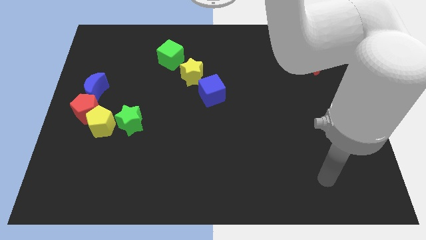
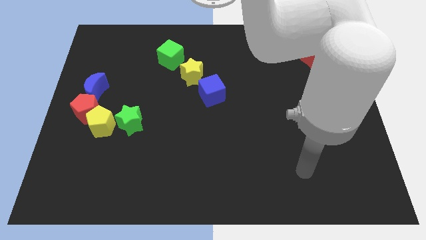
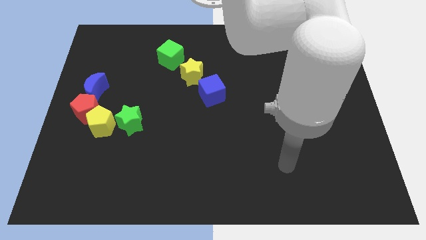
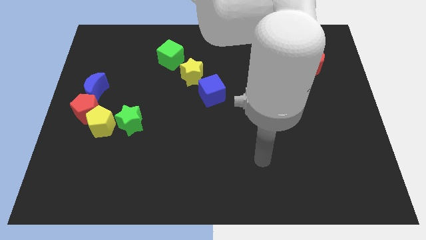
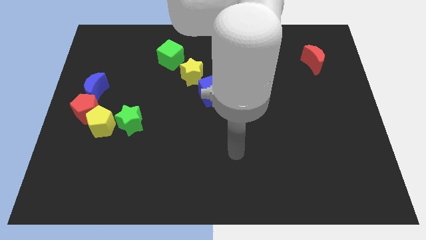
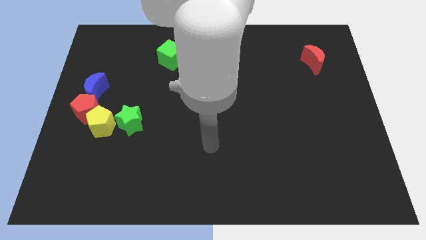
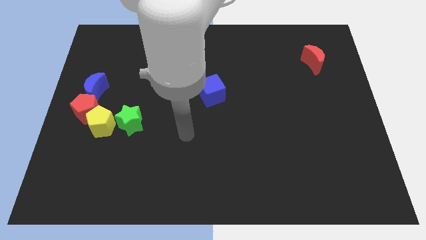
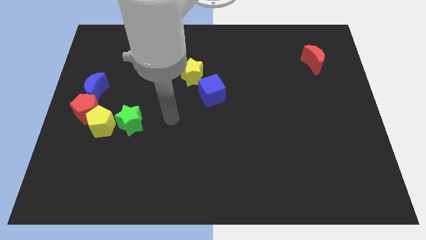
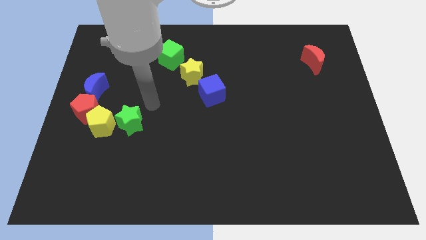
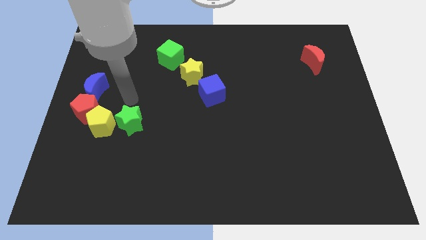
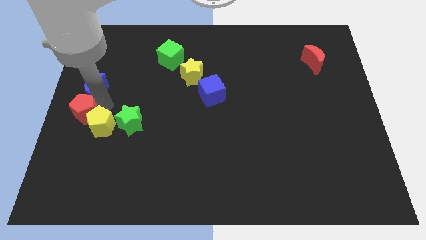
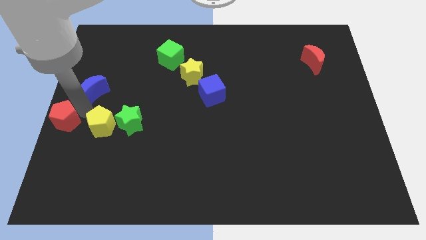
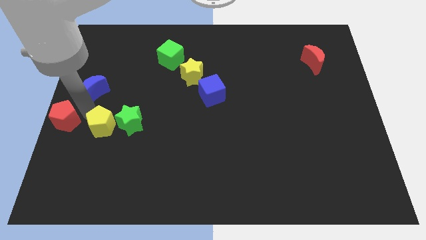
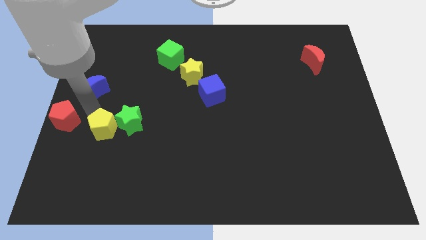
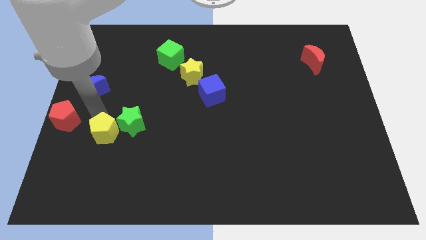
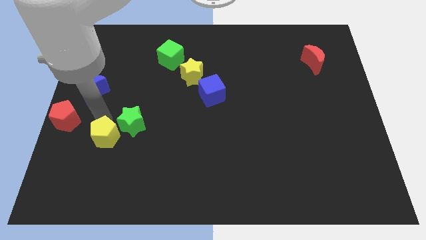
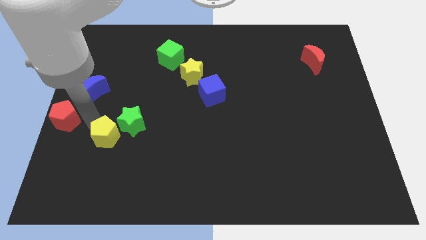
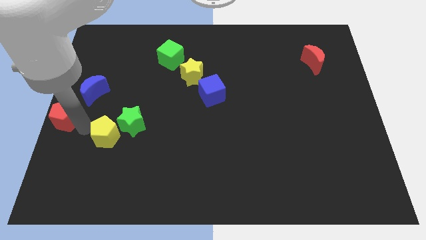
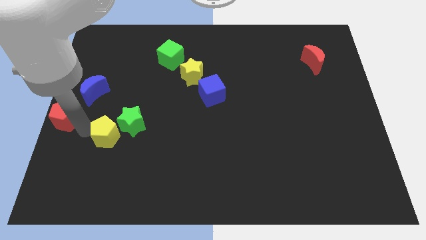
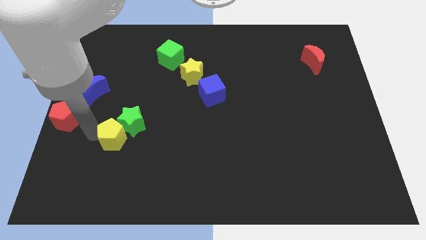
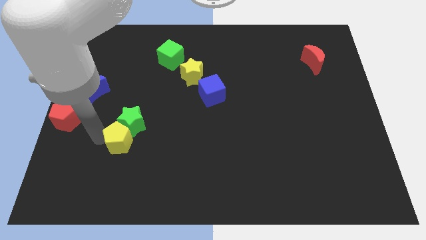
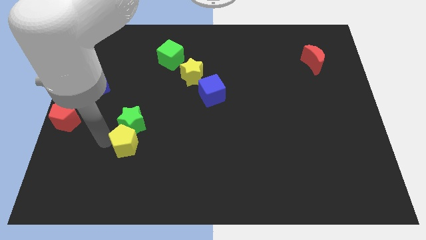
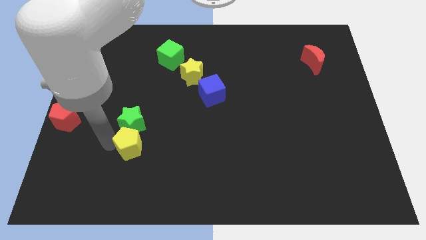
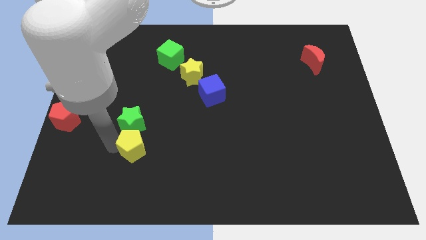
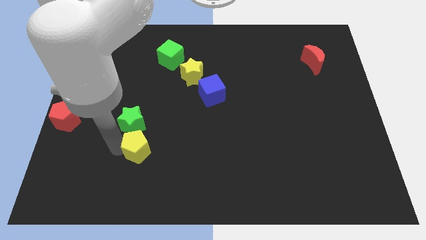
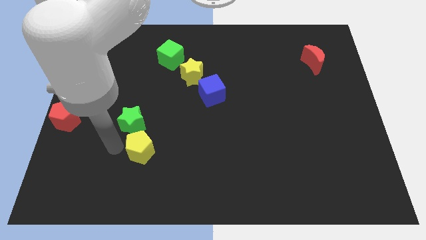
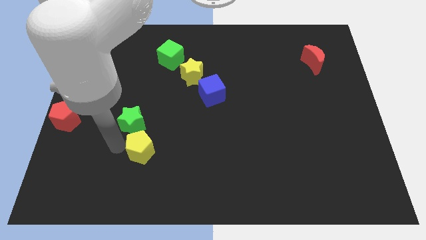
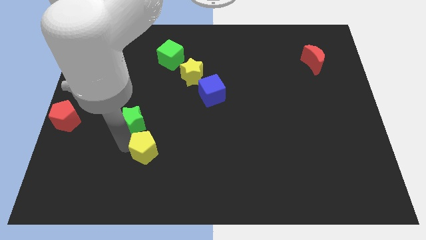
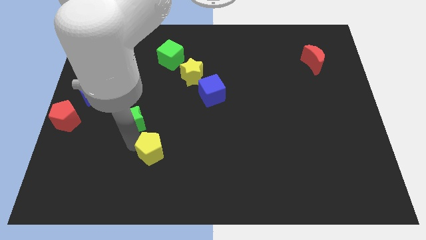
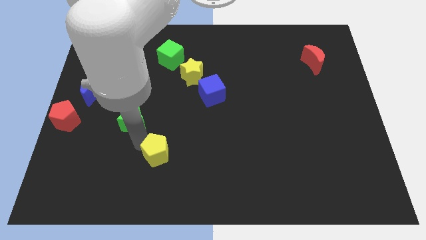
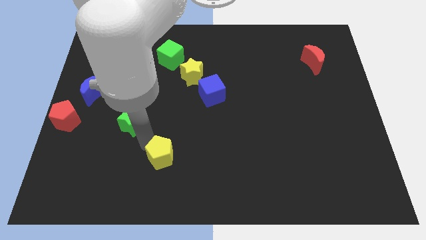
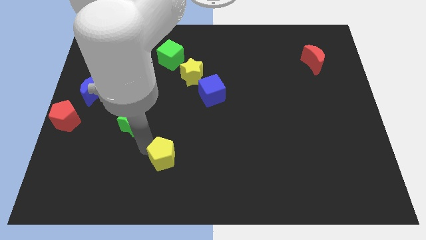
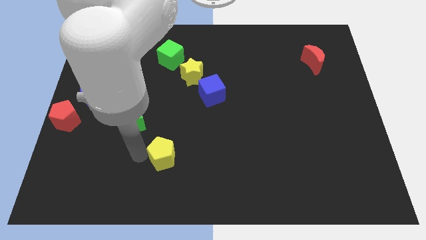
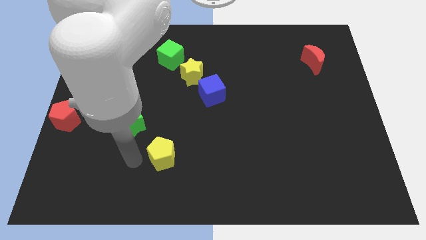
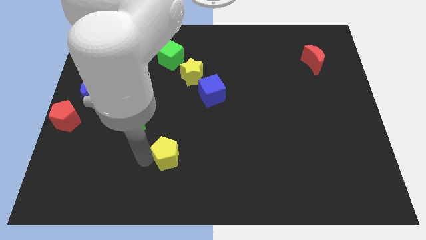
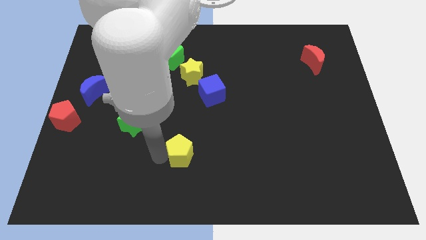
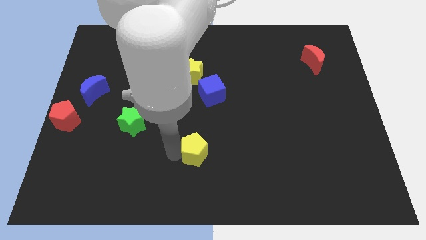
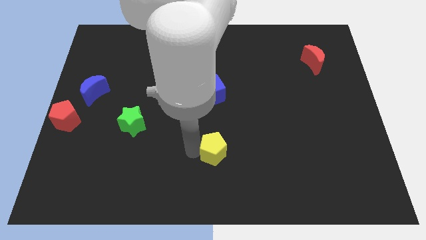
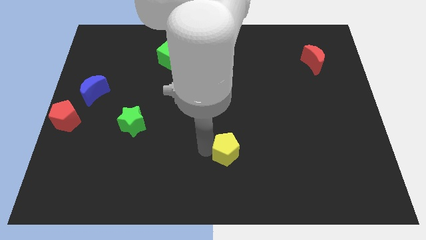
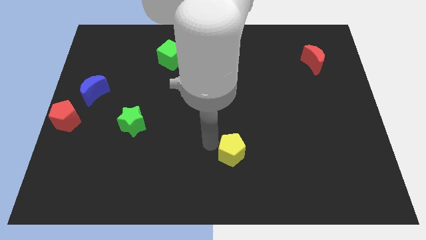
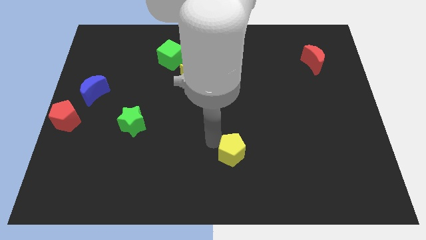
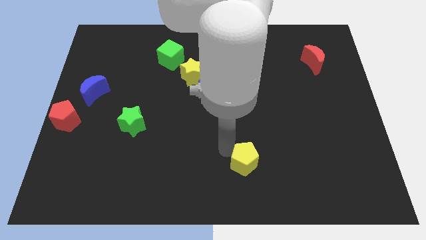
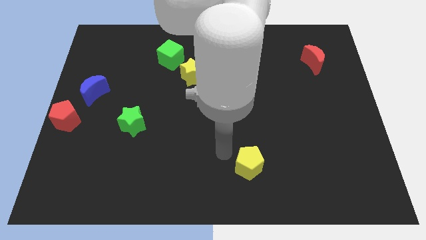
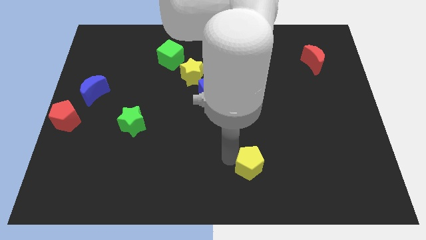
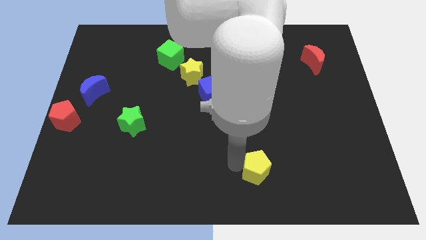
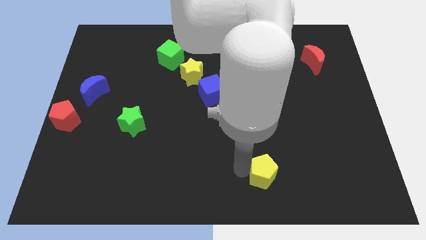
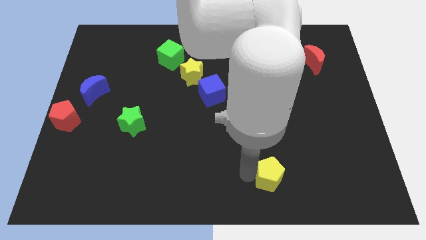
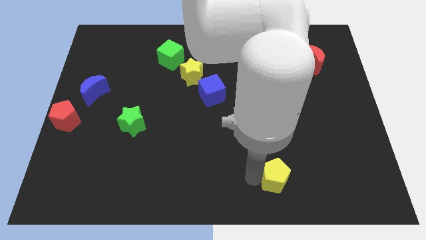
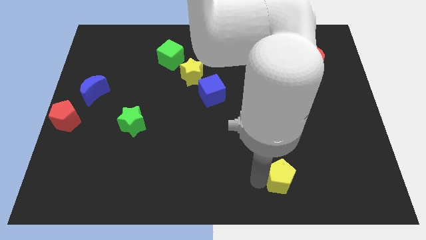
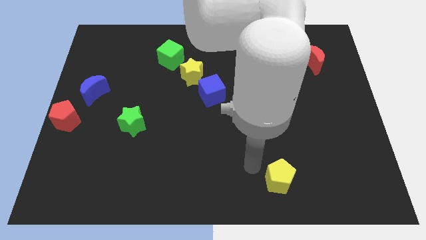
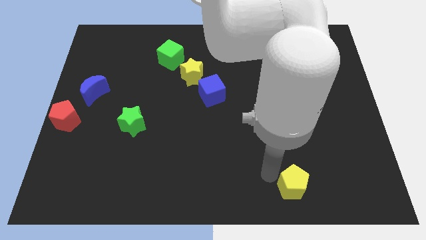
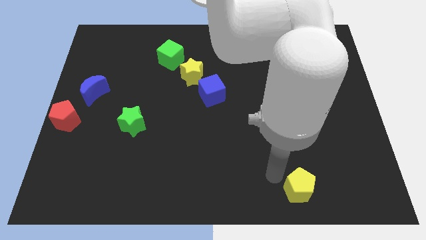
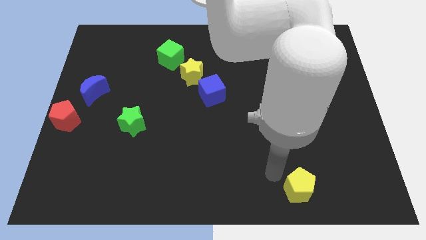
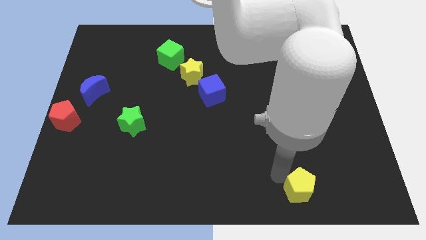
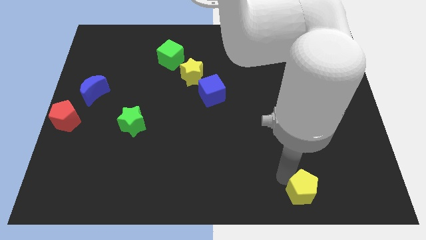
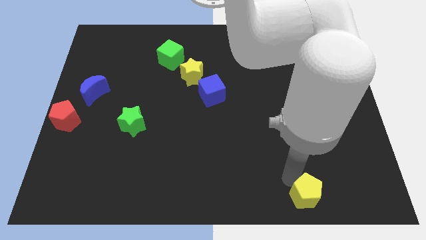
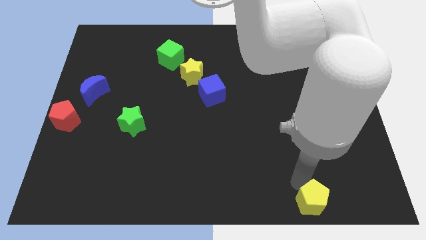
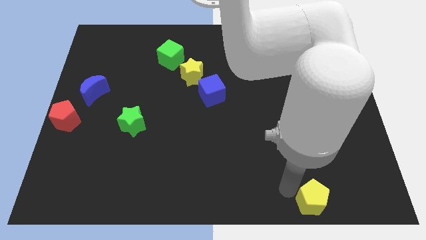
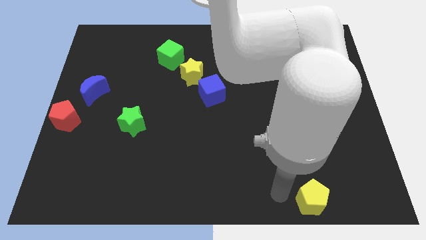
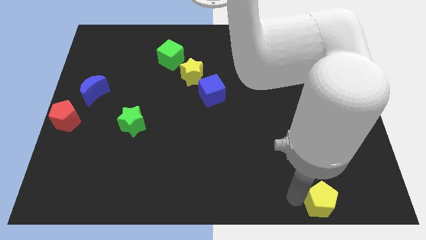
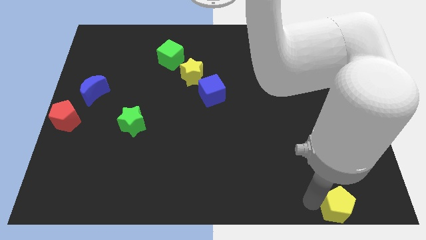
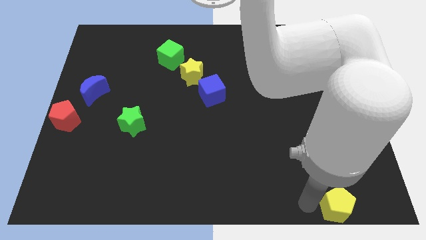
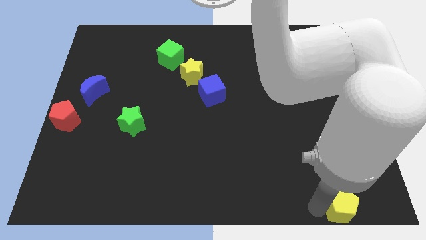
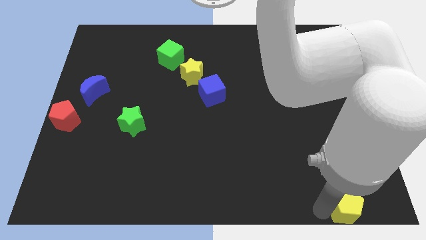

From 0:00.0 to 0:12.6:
move the yellow pentagon to the bottom right of the board

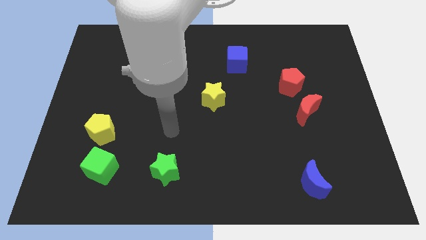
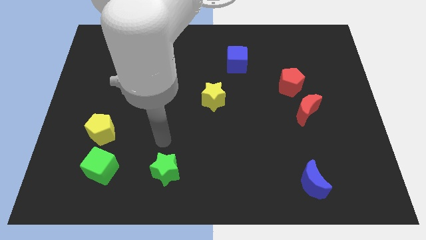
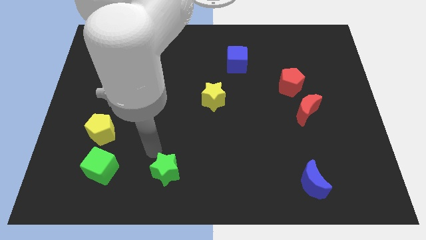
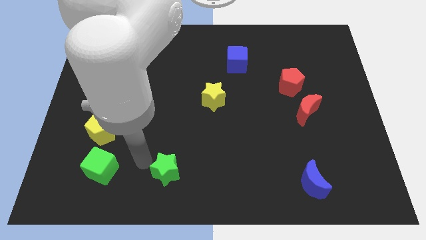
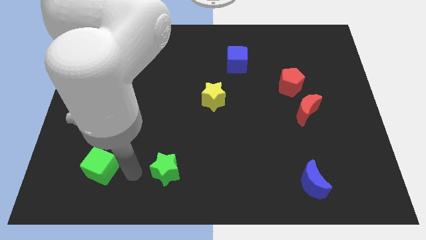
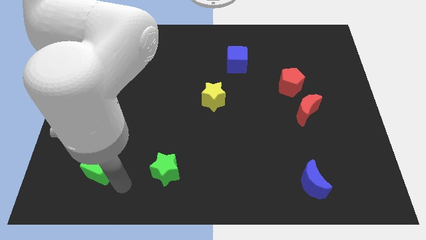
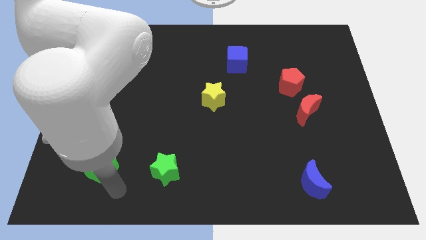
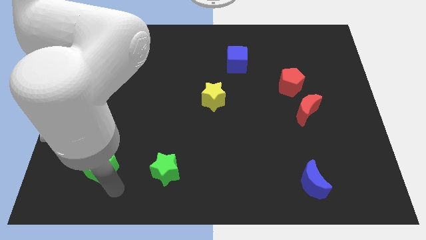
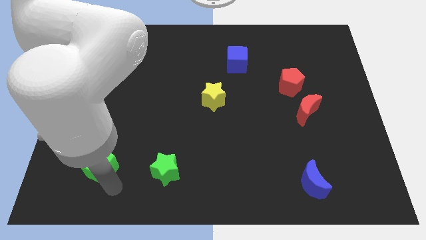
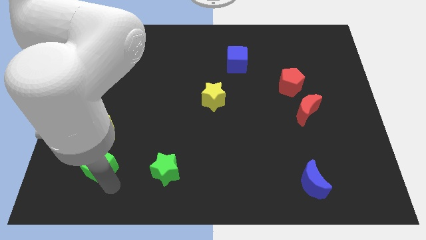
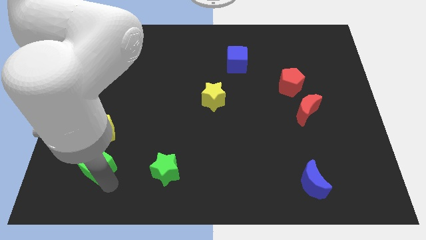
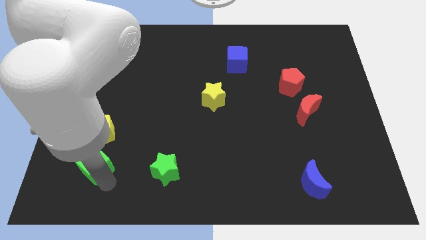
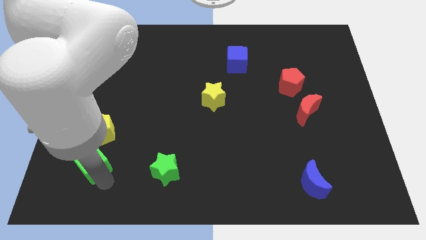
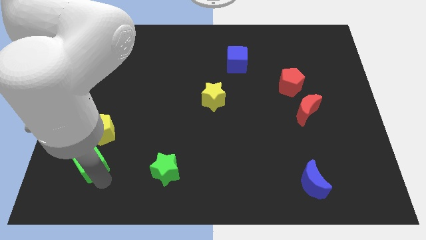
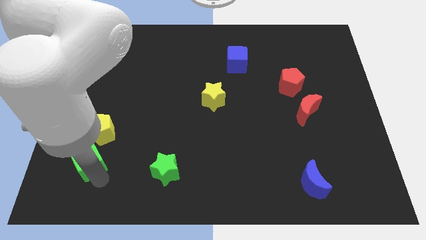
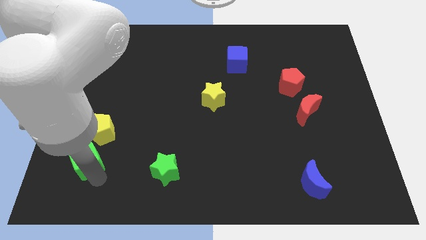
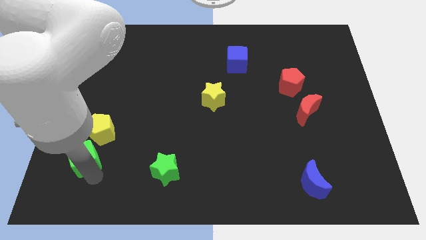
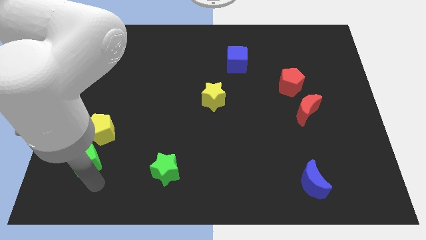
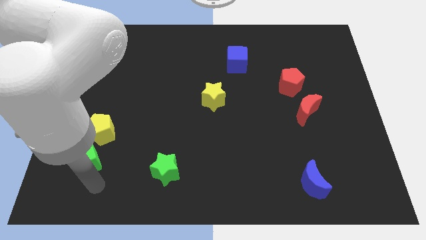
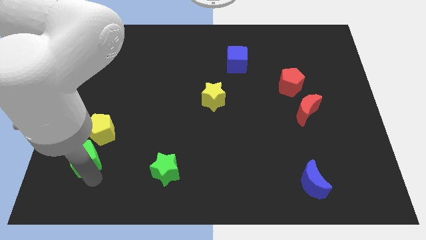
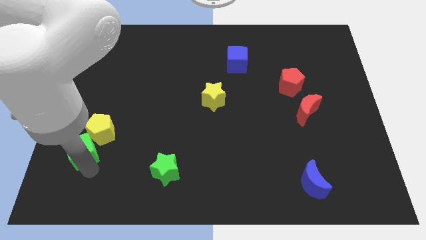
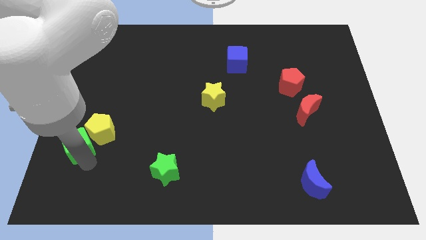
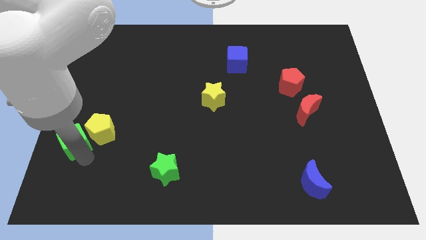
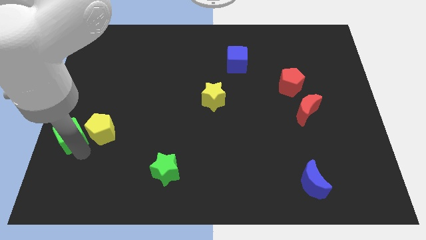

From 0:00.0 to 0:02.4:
slide the green cube to the left side of the board
